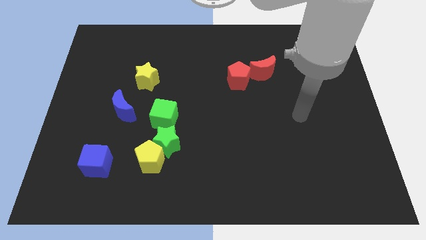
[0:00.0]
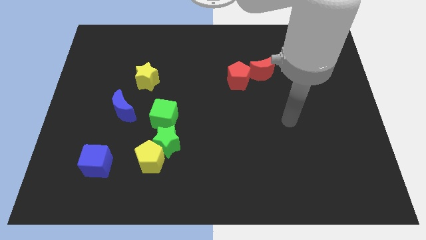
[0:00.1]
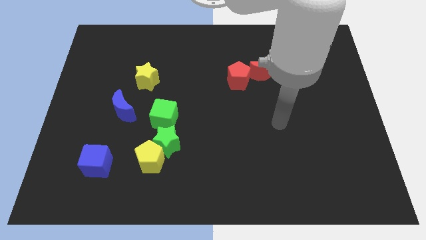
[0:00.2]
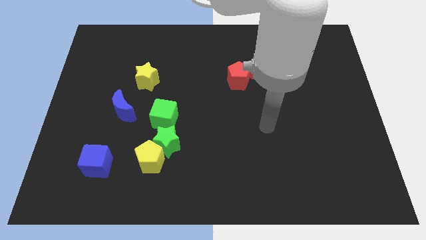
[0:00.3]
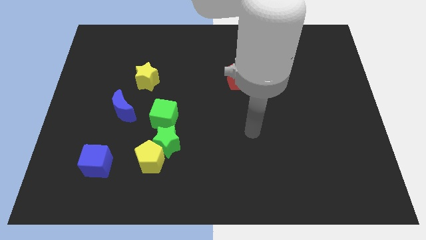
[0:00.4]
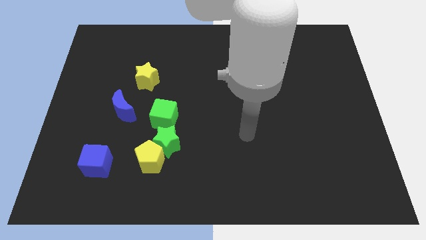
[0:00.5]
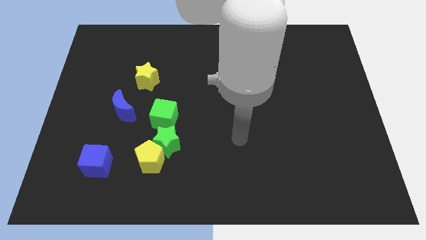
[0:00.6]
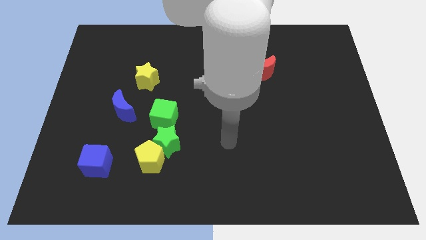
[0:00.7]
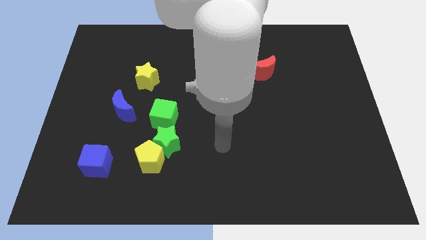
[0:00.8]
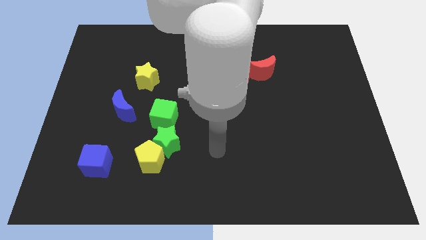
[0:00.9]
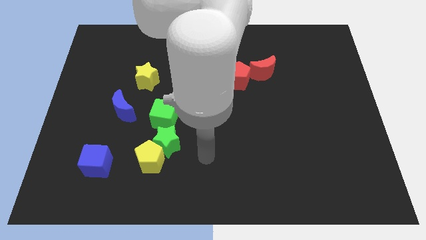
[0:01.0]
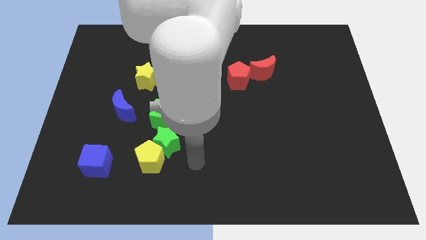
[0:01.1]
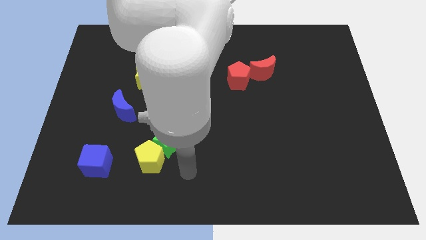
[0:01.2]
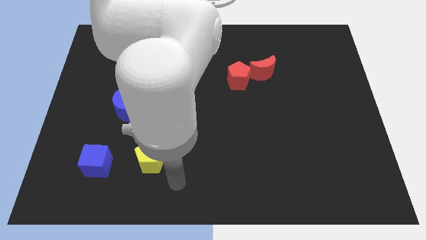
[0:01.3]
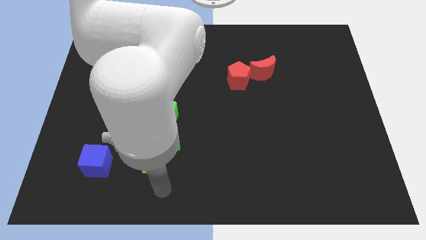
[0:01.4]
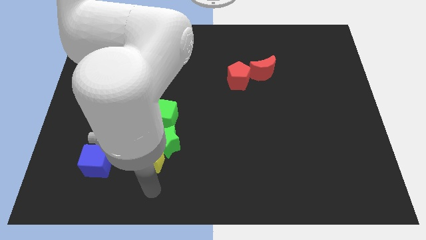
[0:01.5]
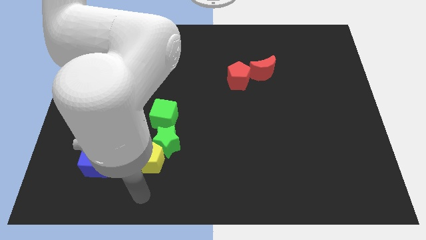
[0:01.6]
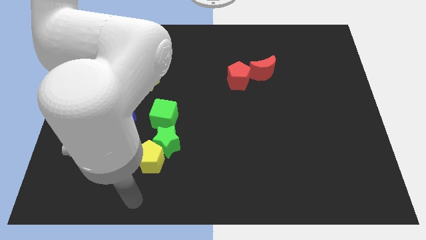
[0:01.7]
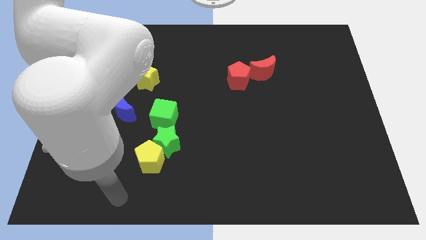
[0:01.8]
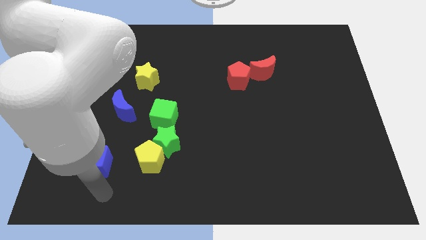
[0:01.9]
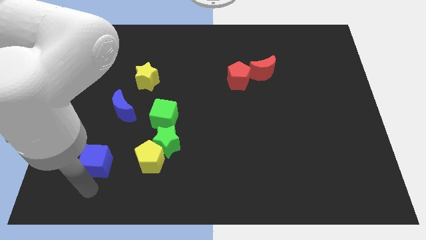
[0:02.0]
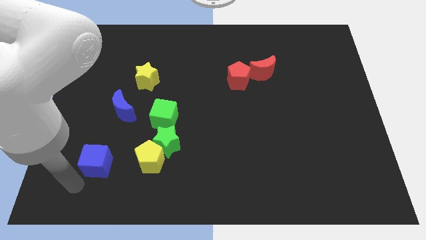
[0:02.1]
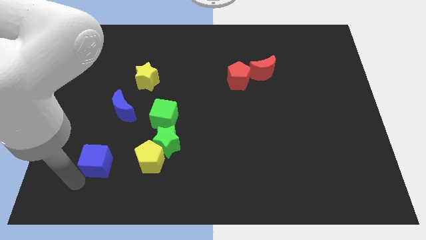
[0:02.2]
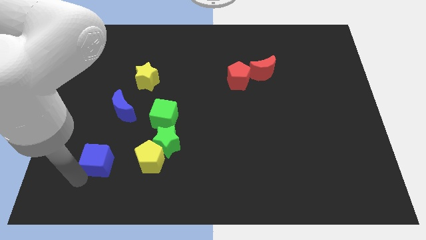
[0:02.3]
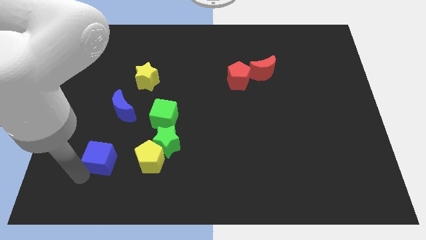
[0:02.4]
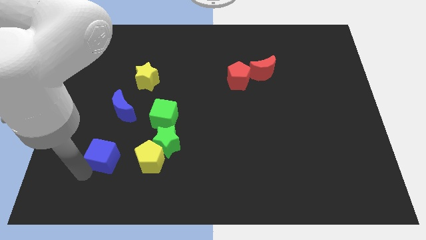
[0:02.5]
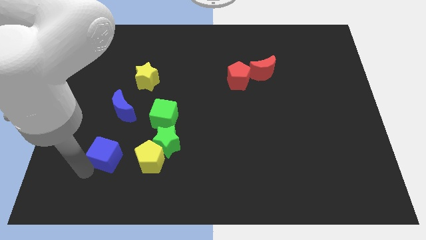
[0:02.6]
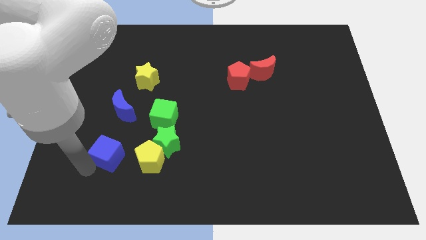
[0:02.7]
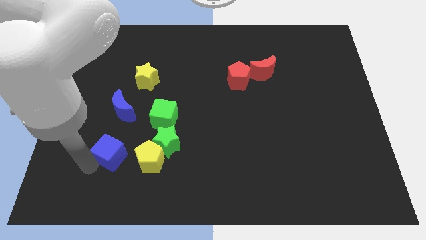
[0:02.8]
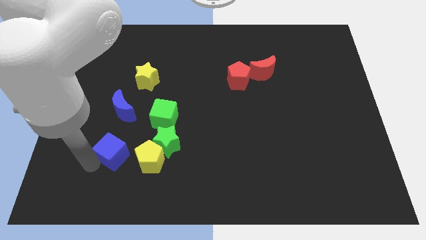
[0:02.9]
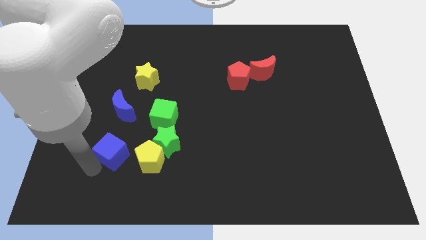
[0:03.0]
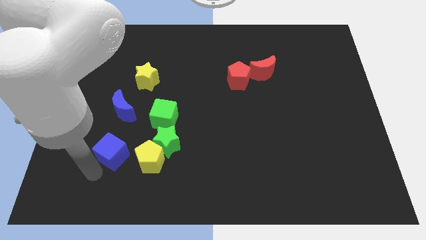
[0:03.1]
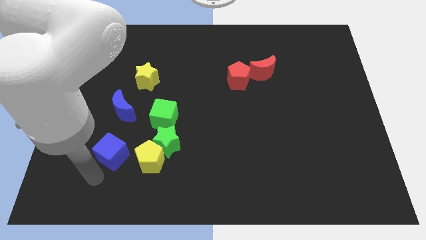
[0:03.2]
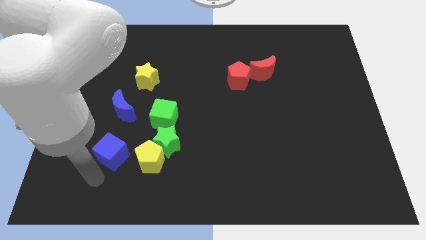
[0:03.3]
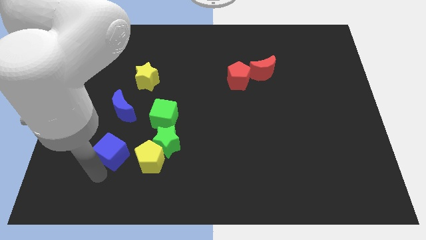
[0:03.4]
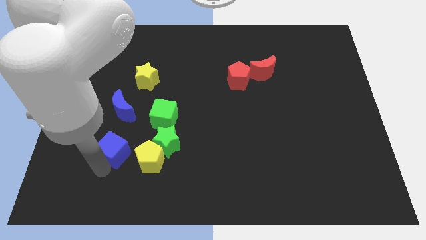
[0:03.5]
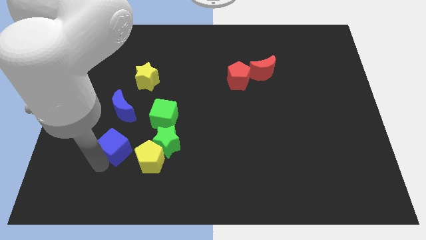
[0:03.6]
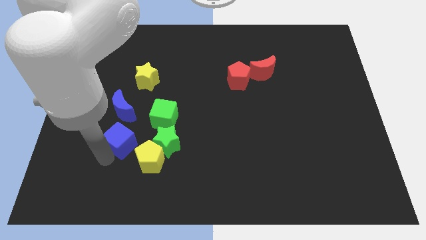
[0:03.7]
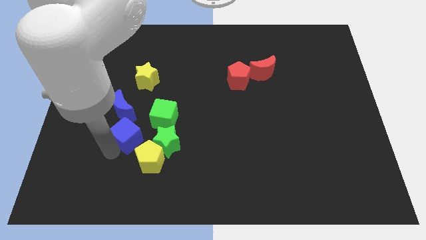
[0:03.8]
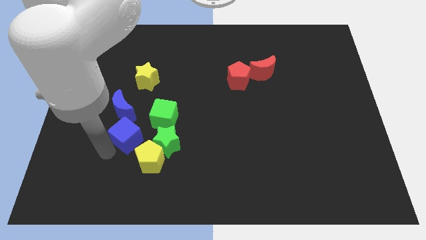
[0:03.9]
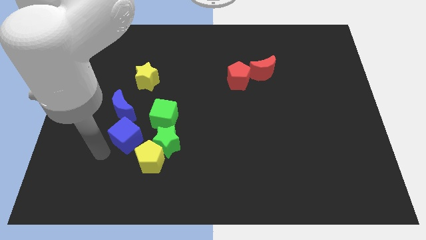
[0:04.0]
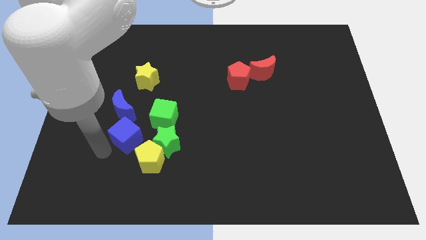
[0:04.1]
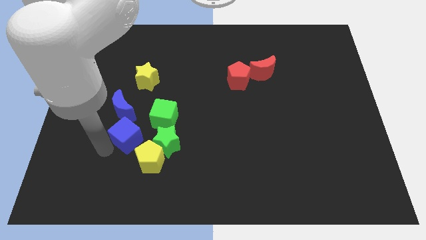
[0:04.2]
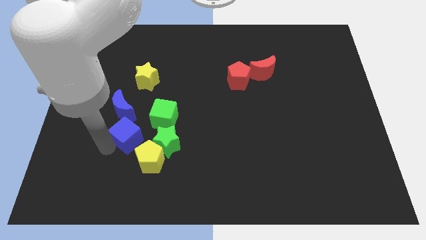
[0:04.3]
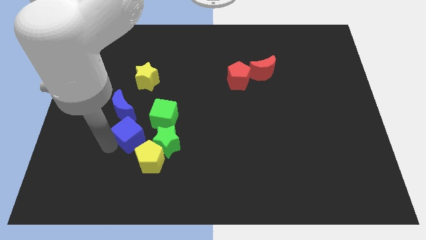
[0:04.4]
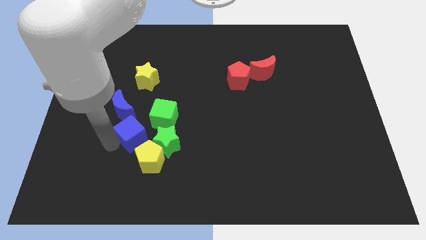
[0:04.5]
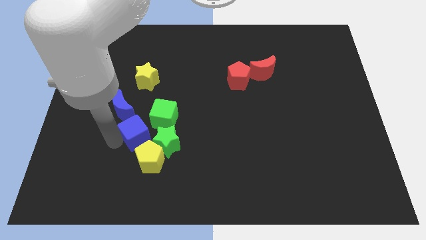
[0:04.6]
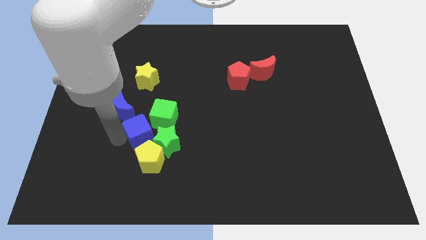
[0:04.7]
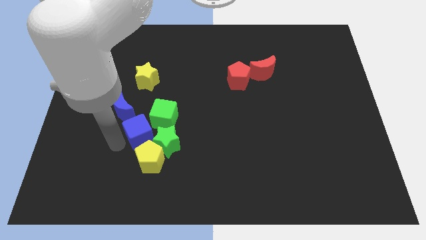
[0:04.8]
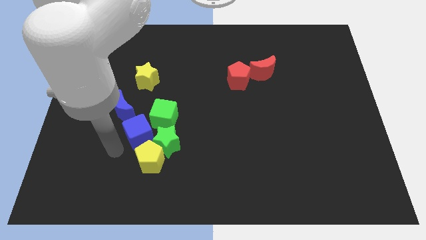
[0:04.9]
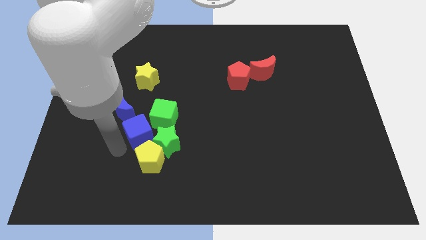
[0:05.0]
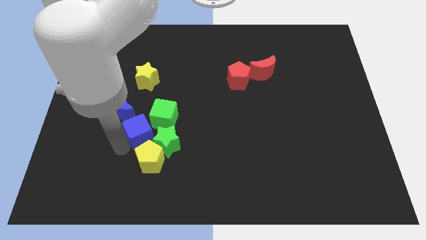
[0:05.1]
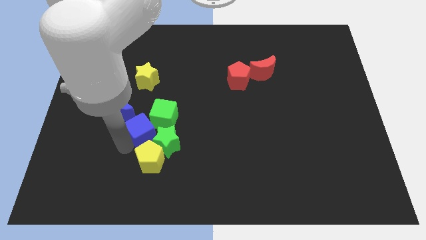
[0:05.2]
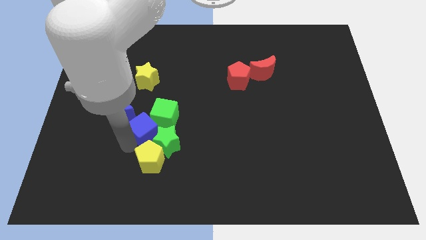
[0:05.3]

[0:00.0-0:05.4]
move the blue cube towards the green cube

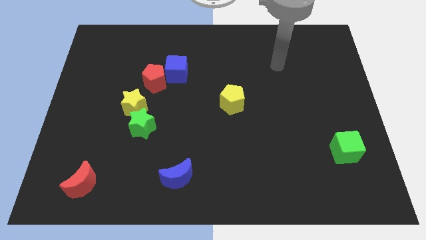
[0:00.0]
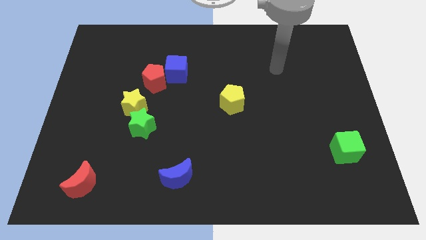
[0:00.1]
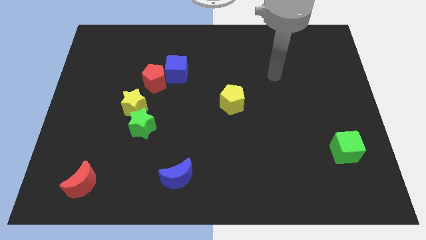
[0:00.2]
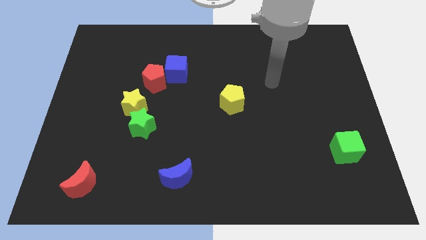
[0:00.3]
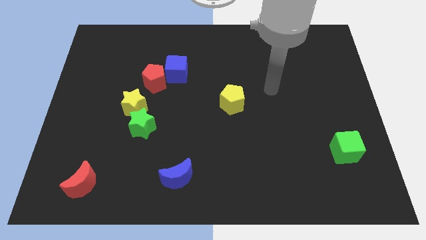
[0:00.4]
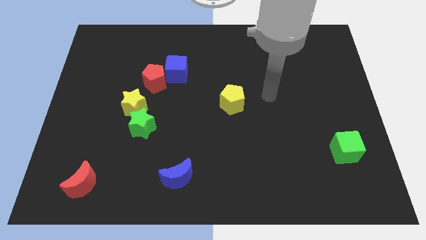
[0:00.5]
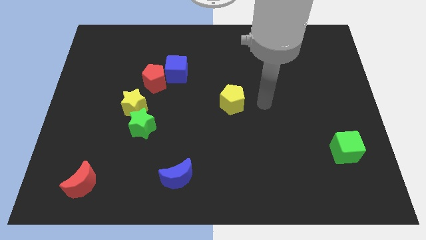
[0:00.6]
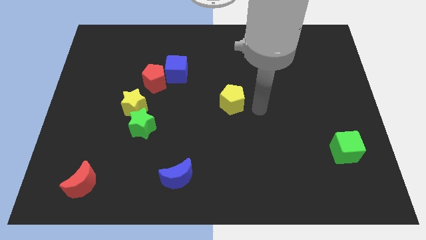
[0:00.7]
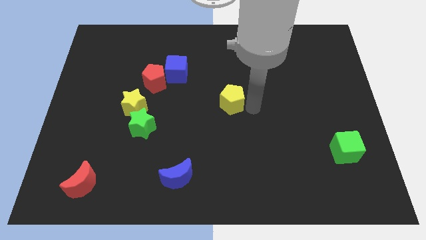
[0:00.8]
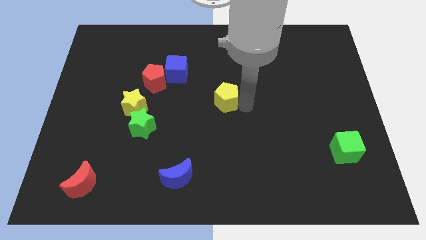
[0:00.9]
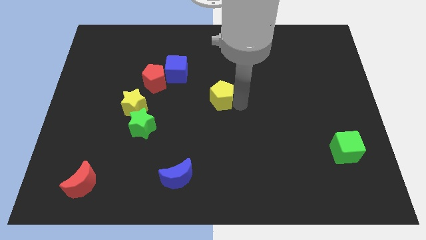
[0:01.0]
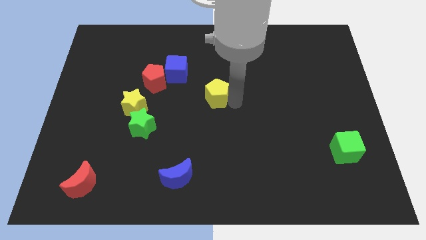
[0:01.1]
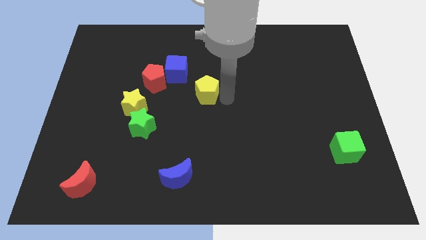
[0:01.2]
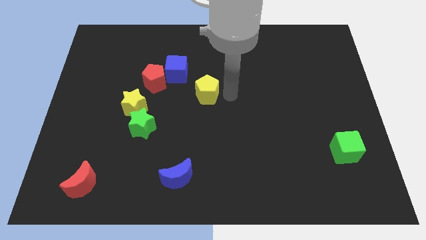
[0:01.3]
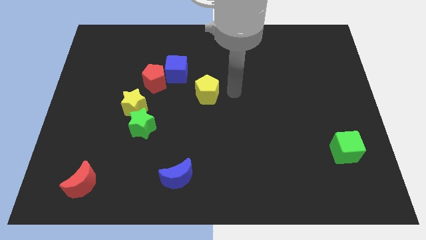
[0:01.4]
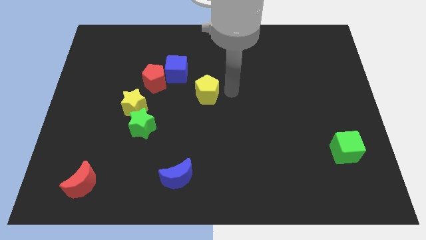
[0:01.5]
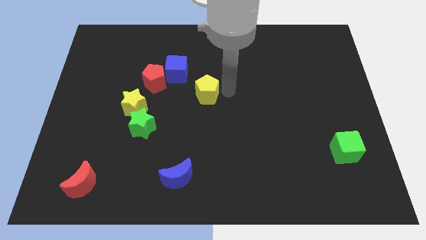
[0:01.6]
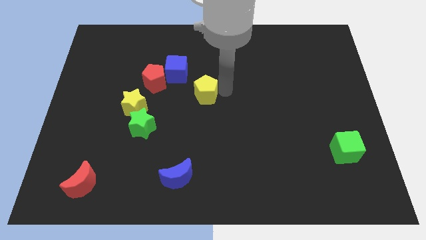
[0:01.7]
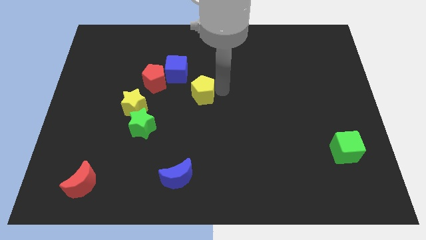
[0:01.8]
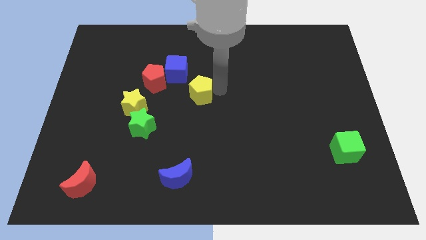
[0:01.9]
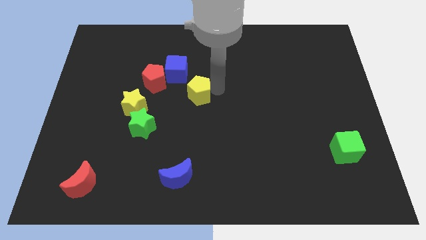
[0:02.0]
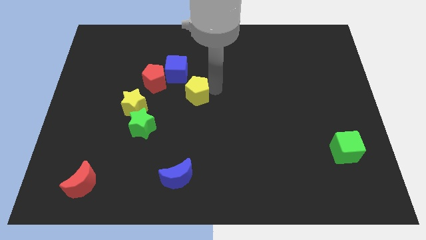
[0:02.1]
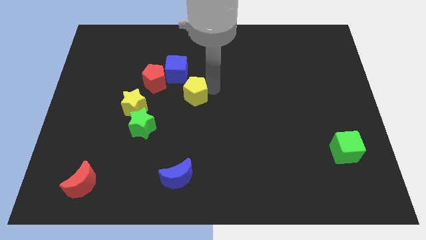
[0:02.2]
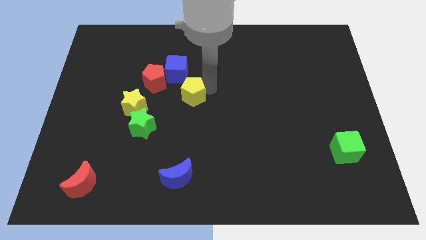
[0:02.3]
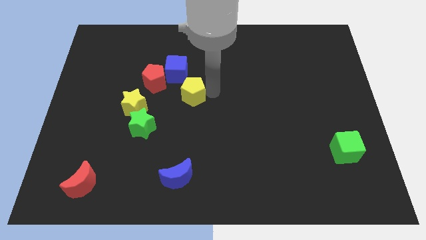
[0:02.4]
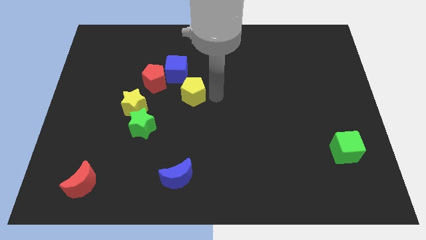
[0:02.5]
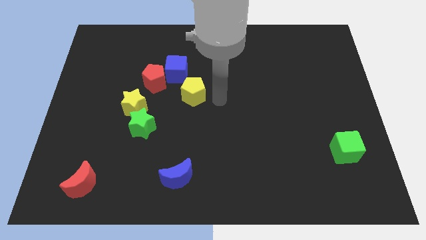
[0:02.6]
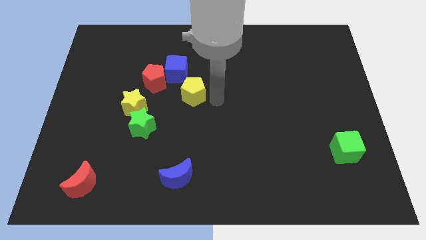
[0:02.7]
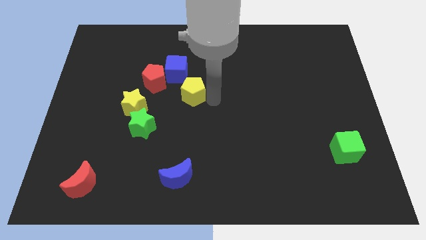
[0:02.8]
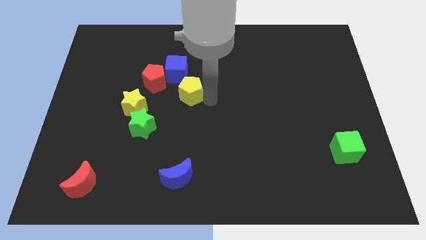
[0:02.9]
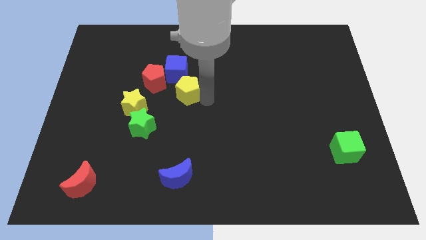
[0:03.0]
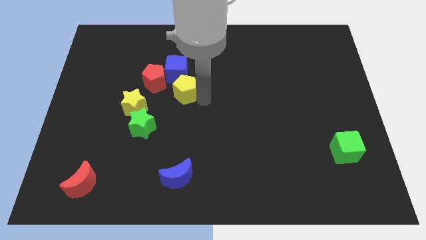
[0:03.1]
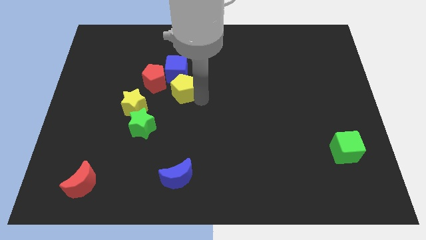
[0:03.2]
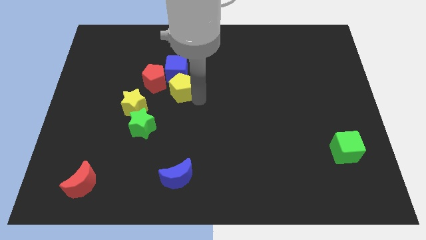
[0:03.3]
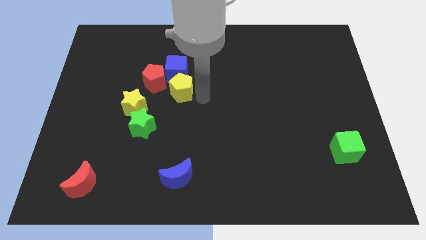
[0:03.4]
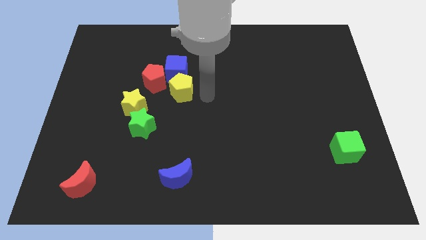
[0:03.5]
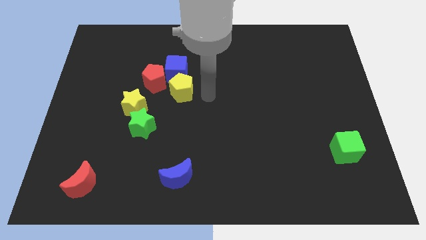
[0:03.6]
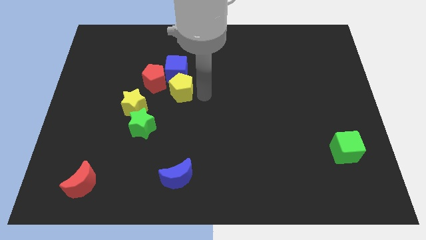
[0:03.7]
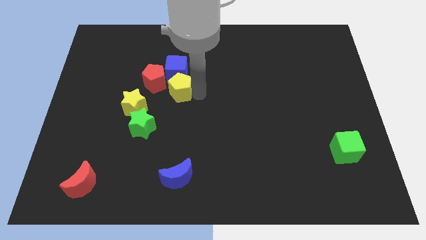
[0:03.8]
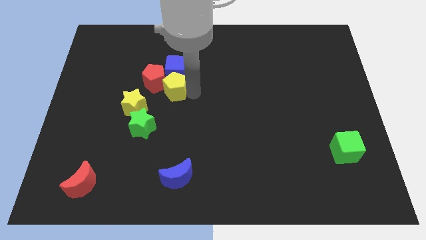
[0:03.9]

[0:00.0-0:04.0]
slide the yellow pentagon next to the red pentagon
